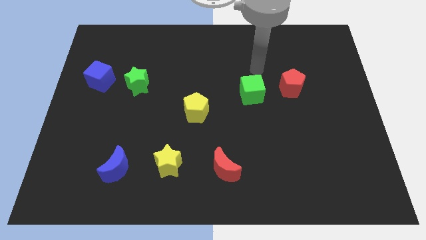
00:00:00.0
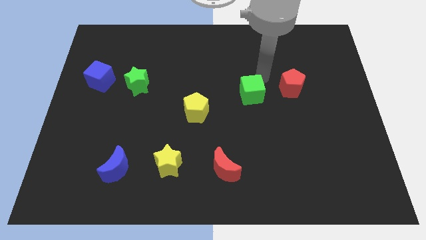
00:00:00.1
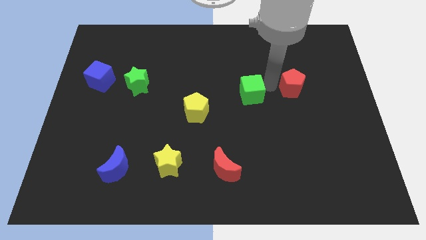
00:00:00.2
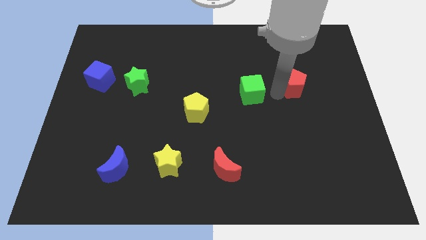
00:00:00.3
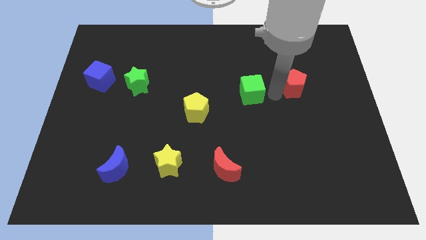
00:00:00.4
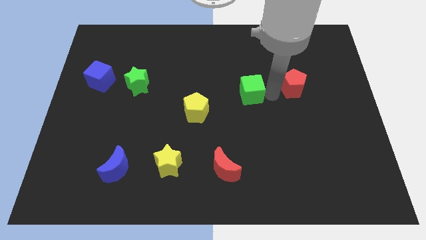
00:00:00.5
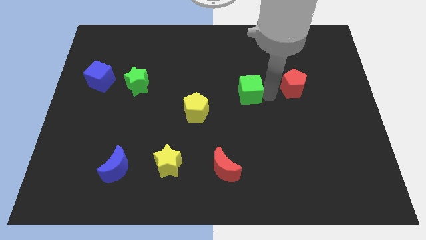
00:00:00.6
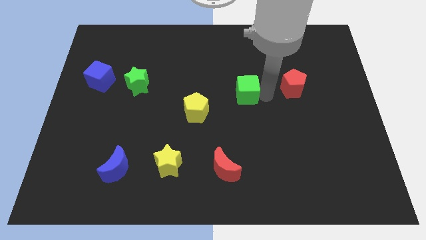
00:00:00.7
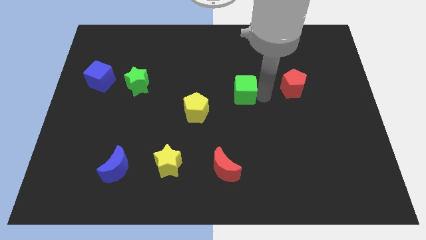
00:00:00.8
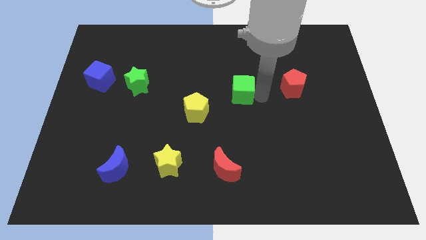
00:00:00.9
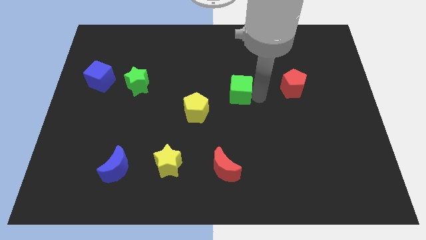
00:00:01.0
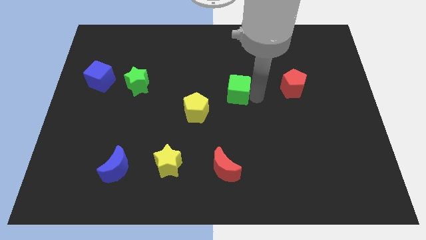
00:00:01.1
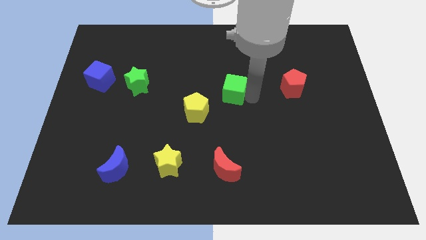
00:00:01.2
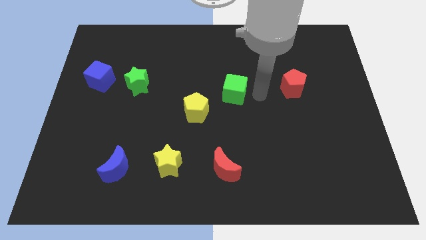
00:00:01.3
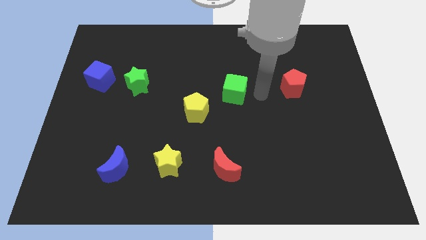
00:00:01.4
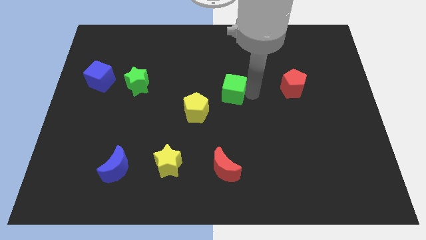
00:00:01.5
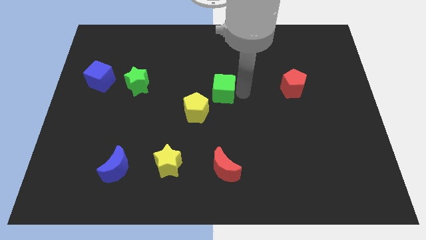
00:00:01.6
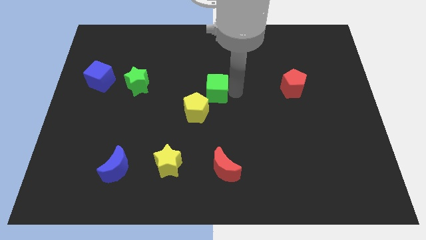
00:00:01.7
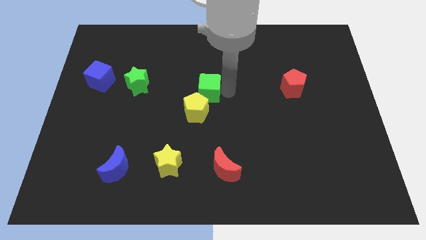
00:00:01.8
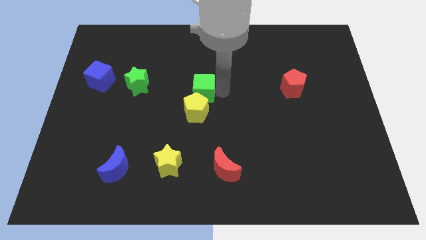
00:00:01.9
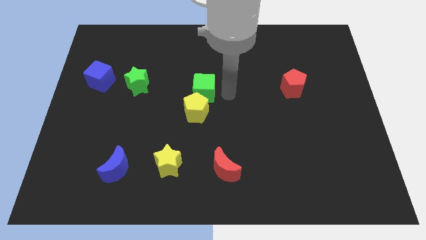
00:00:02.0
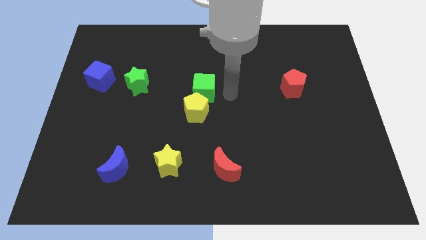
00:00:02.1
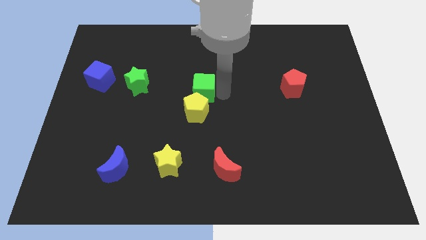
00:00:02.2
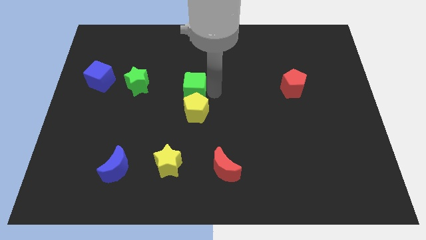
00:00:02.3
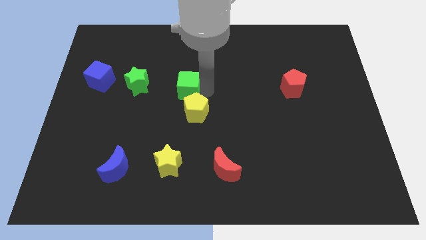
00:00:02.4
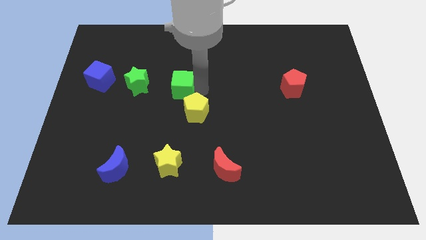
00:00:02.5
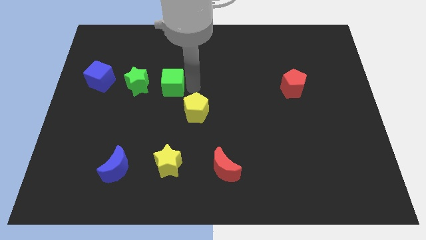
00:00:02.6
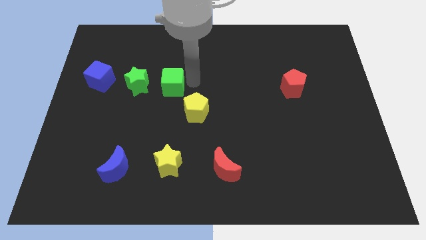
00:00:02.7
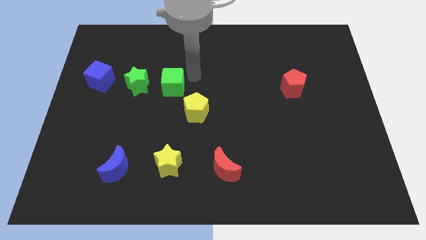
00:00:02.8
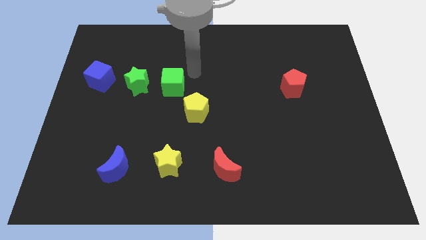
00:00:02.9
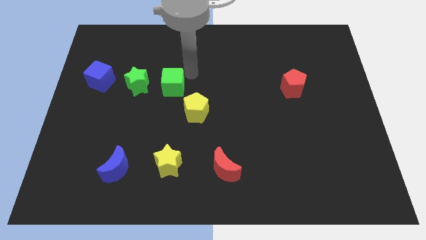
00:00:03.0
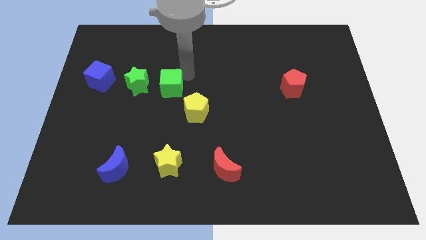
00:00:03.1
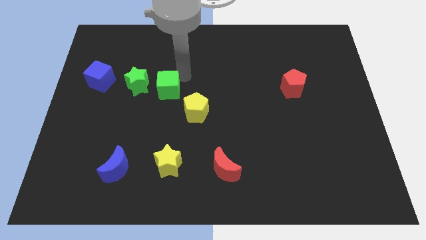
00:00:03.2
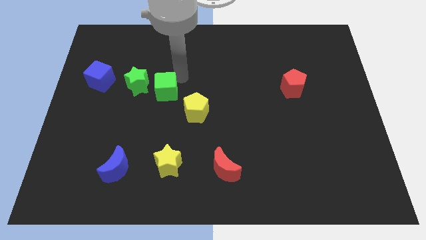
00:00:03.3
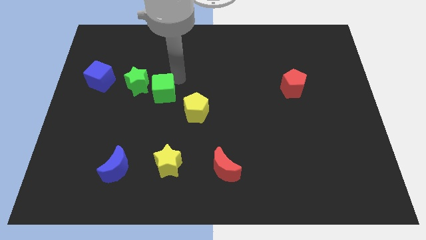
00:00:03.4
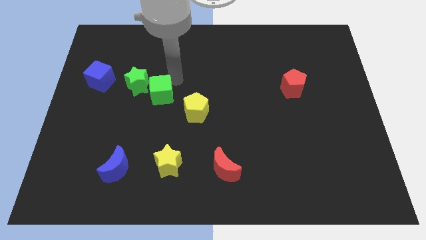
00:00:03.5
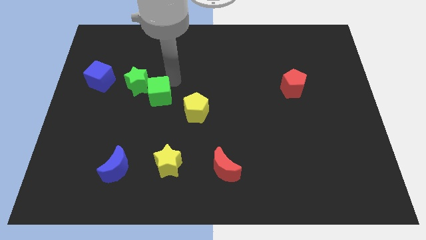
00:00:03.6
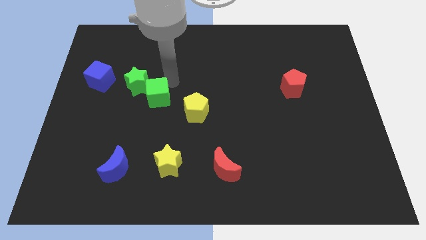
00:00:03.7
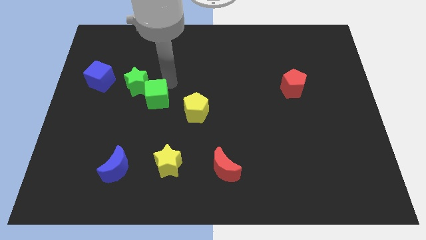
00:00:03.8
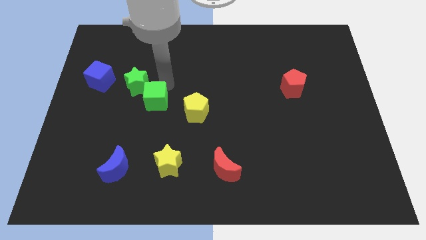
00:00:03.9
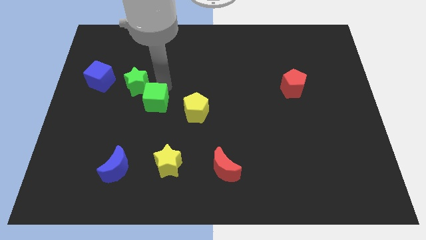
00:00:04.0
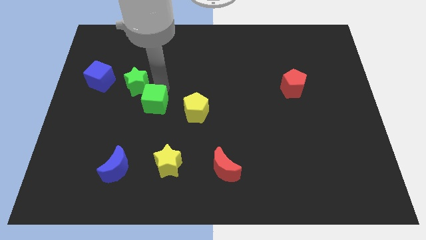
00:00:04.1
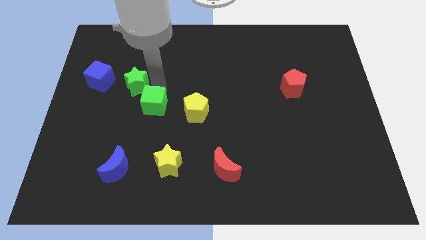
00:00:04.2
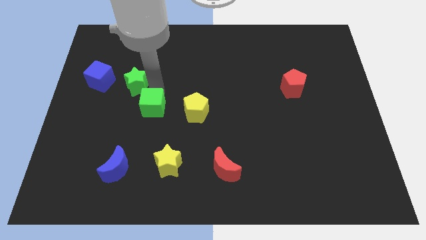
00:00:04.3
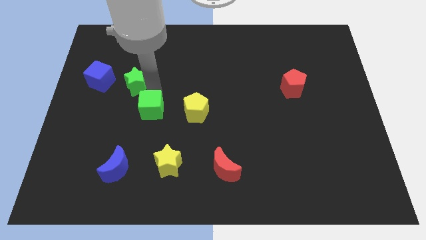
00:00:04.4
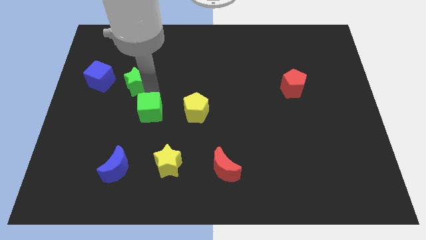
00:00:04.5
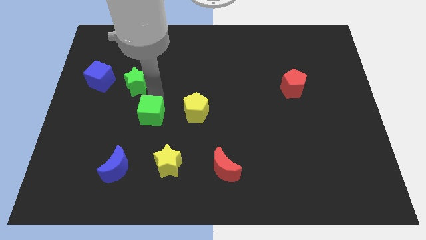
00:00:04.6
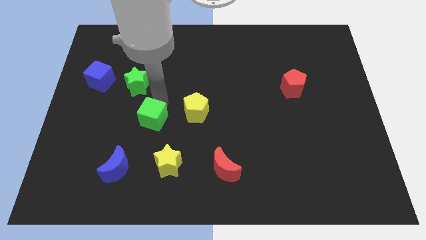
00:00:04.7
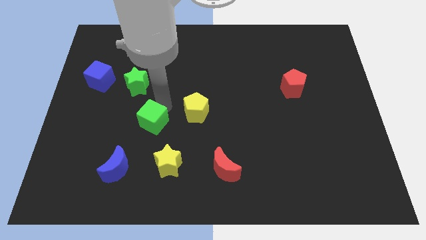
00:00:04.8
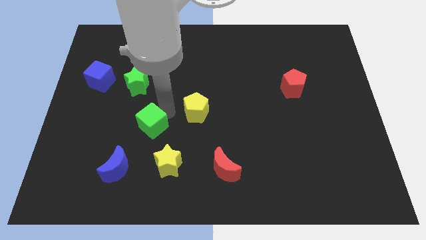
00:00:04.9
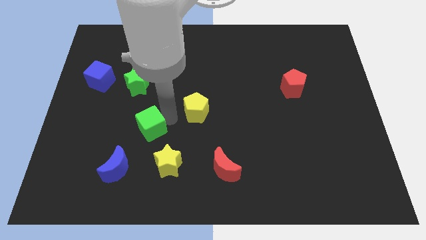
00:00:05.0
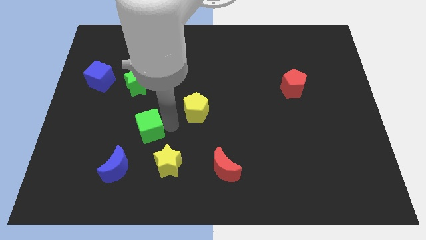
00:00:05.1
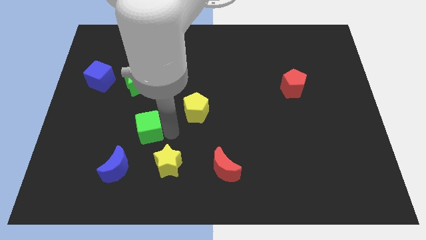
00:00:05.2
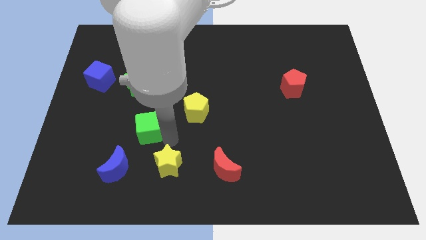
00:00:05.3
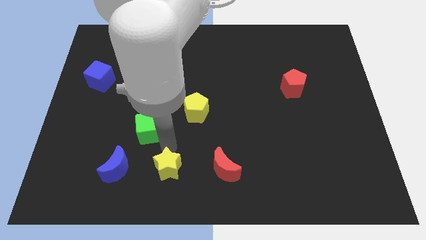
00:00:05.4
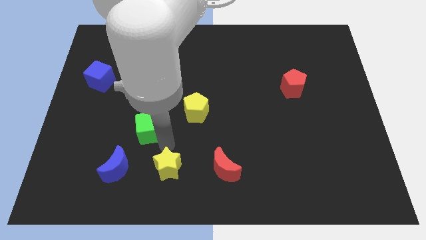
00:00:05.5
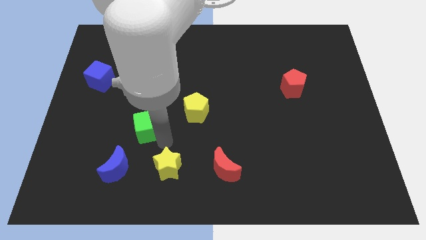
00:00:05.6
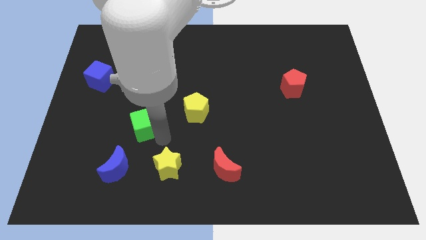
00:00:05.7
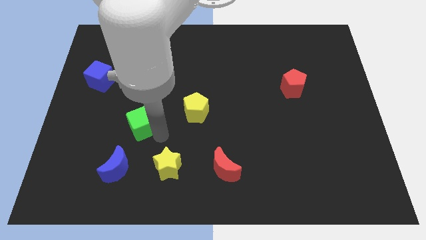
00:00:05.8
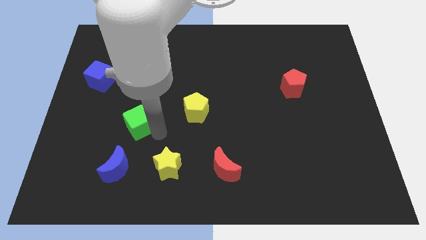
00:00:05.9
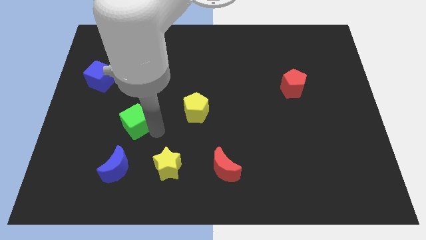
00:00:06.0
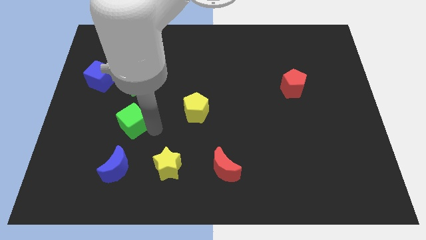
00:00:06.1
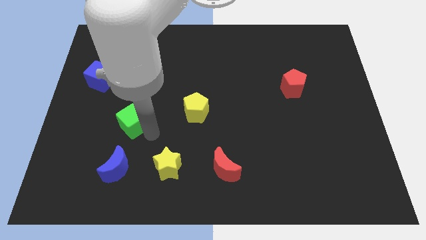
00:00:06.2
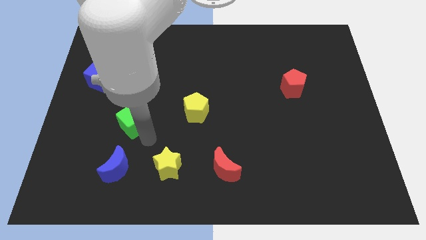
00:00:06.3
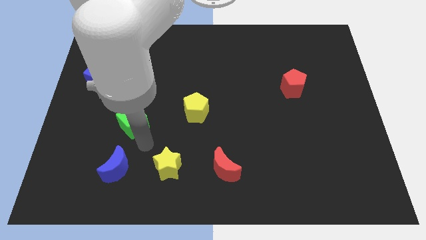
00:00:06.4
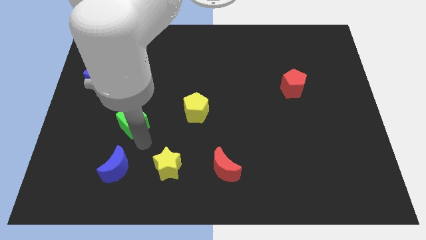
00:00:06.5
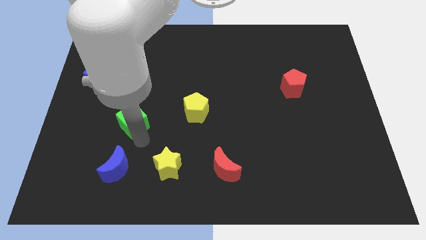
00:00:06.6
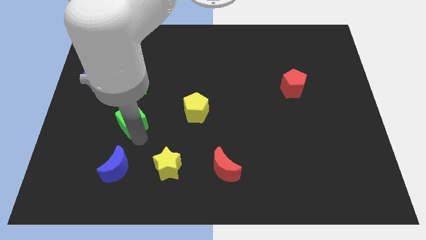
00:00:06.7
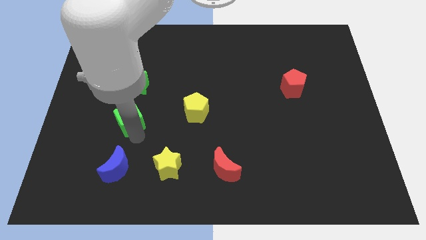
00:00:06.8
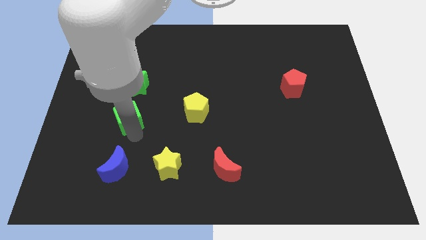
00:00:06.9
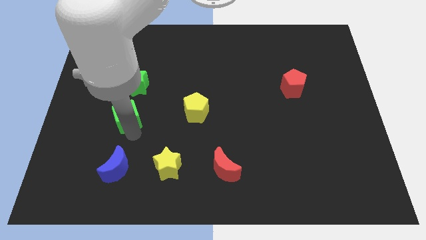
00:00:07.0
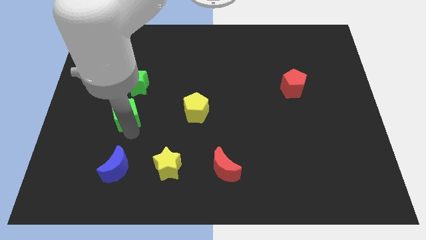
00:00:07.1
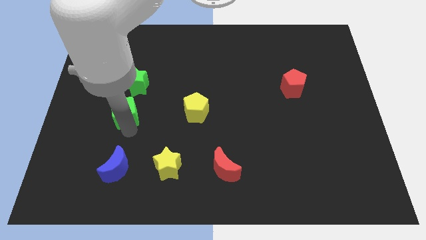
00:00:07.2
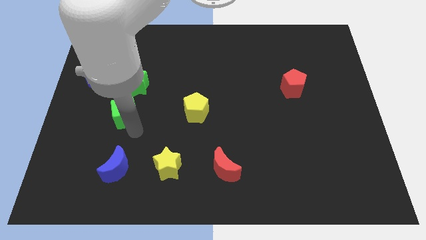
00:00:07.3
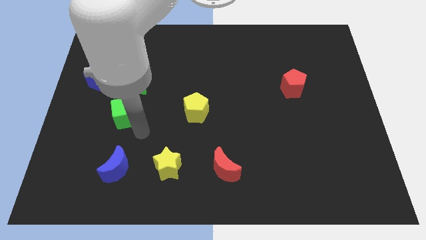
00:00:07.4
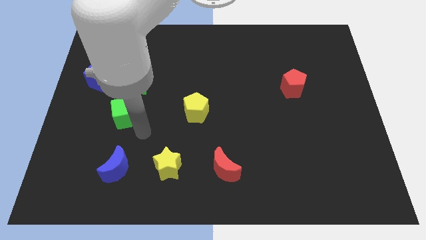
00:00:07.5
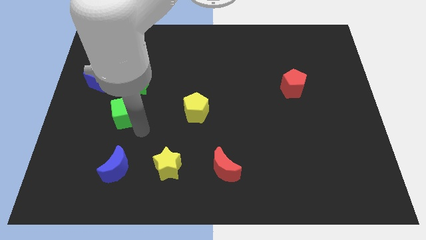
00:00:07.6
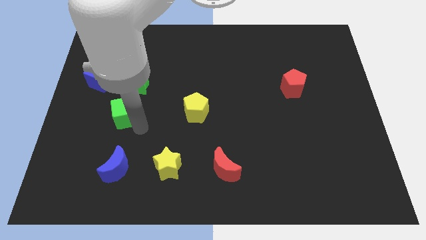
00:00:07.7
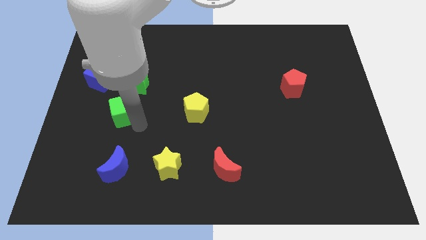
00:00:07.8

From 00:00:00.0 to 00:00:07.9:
move the green cube diagonally down and to the left of the green star
